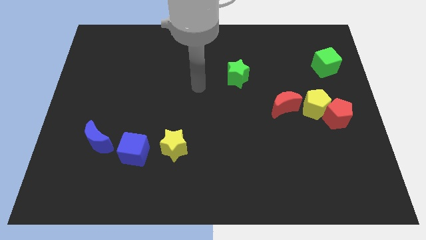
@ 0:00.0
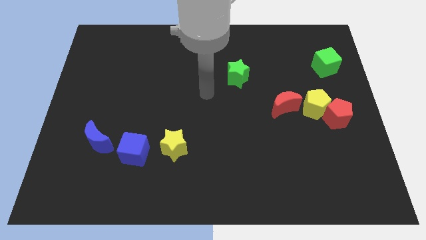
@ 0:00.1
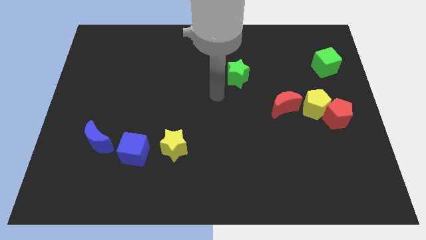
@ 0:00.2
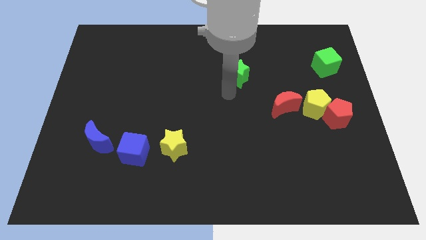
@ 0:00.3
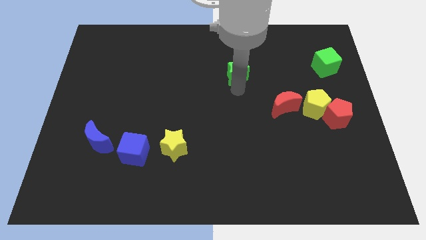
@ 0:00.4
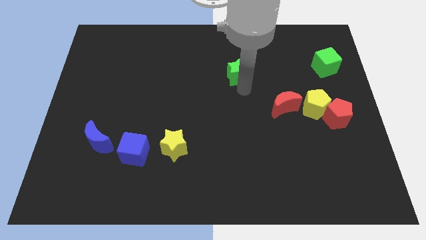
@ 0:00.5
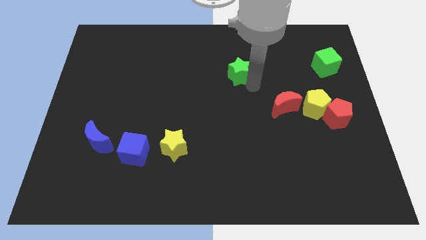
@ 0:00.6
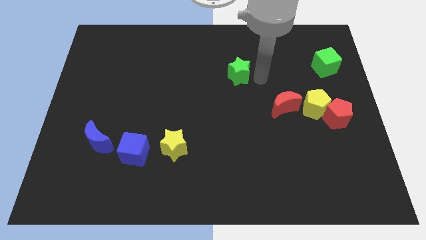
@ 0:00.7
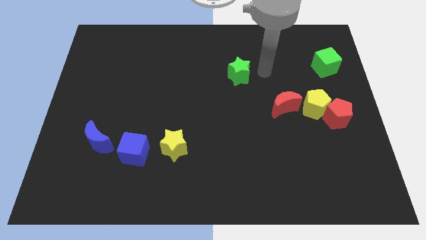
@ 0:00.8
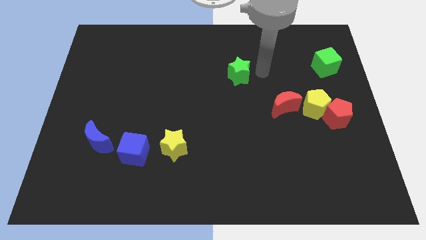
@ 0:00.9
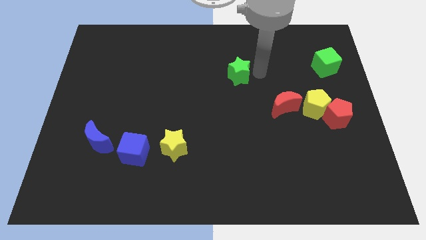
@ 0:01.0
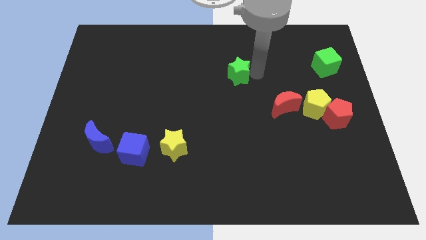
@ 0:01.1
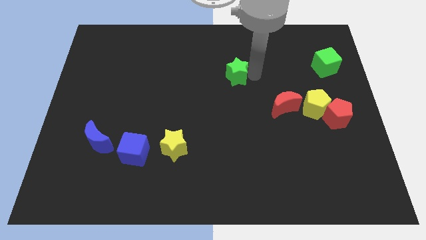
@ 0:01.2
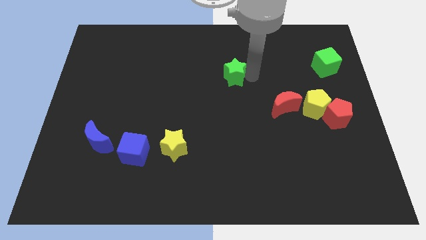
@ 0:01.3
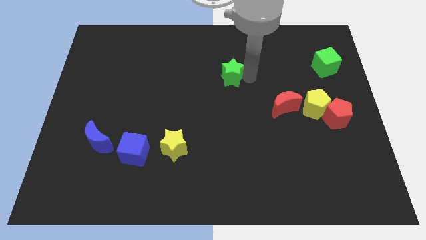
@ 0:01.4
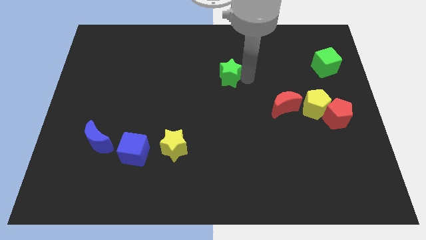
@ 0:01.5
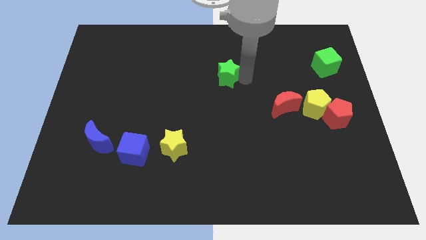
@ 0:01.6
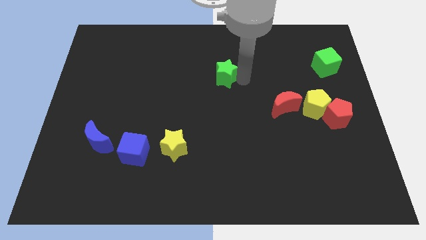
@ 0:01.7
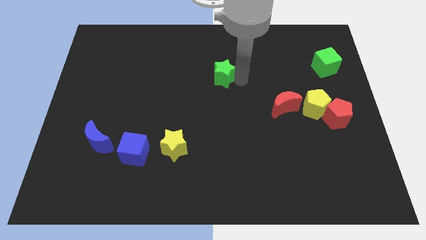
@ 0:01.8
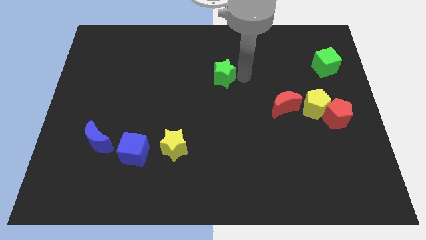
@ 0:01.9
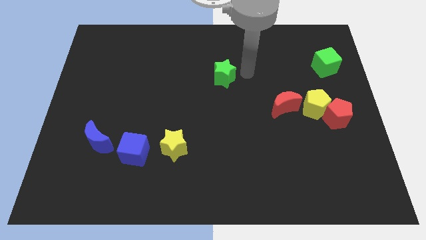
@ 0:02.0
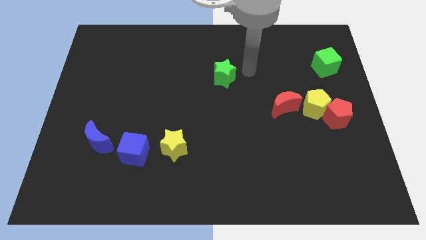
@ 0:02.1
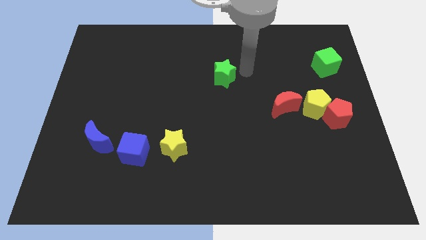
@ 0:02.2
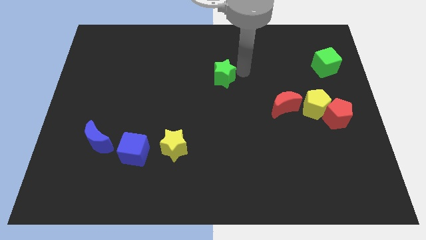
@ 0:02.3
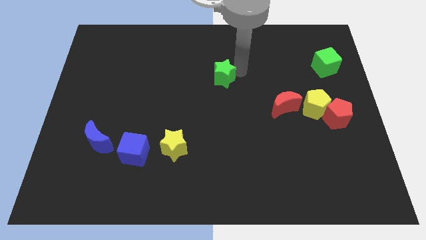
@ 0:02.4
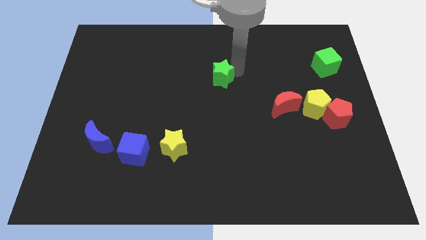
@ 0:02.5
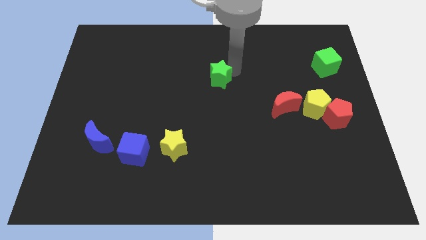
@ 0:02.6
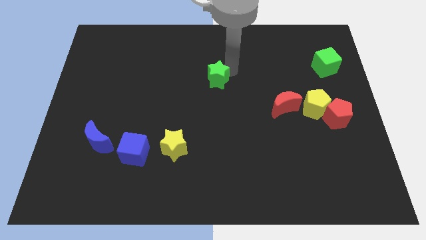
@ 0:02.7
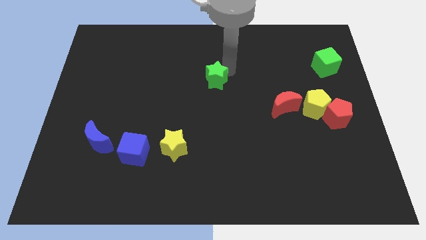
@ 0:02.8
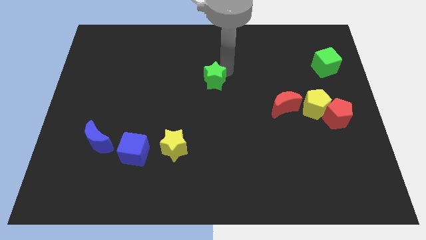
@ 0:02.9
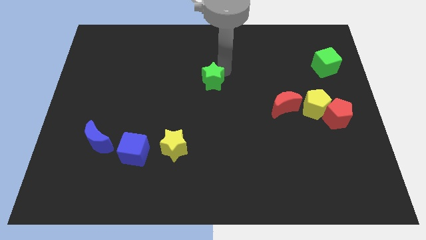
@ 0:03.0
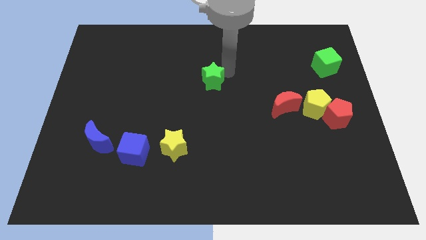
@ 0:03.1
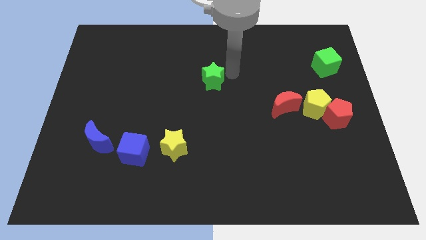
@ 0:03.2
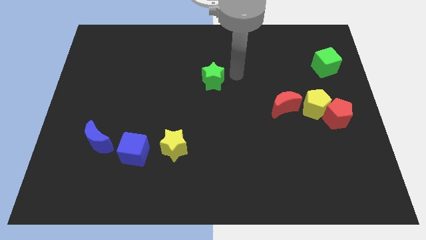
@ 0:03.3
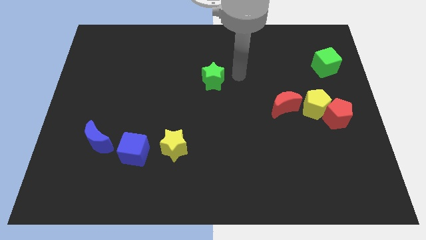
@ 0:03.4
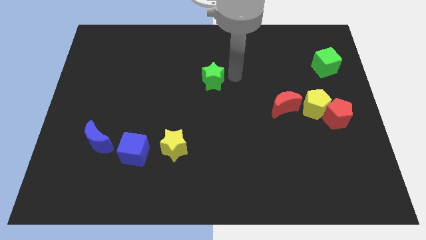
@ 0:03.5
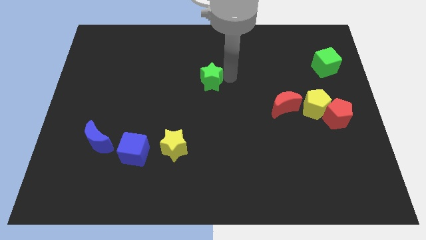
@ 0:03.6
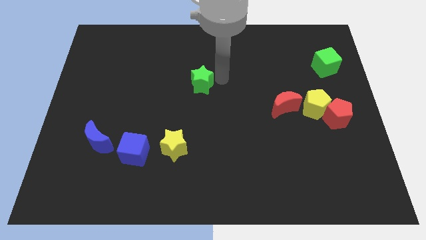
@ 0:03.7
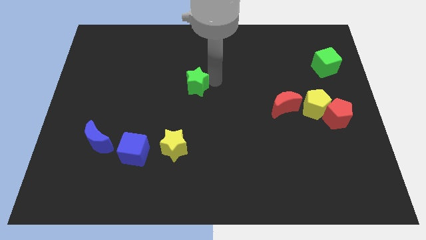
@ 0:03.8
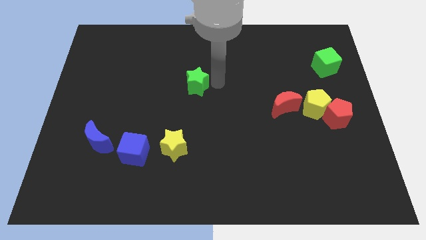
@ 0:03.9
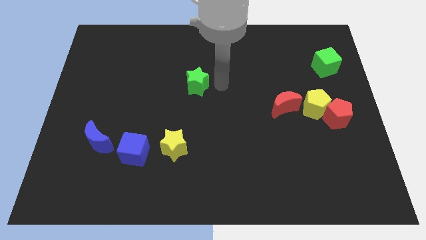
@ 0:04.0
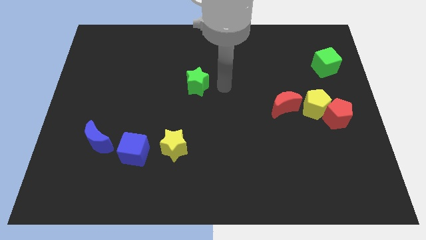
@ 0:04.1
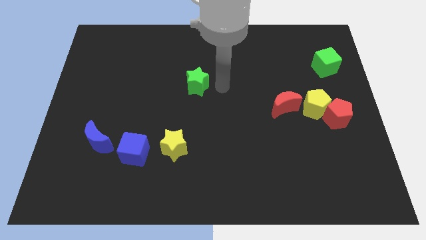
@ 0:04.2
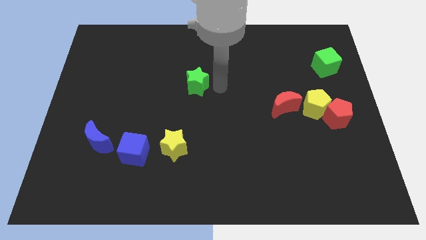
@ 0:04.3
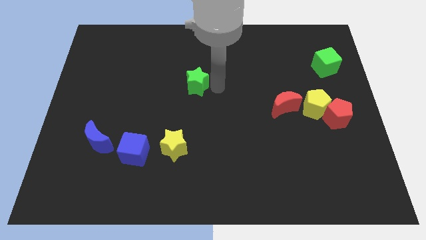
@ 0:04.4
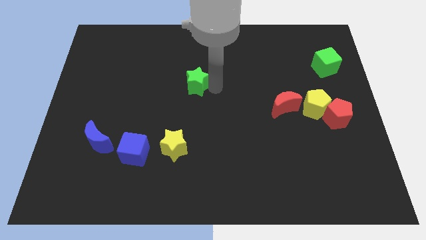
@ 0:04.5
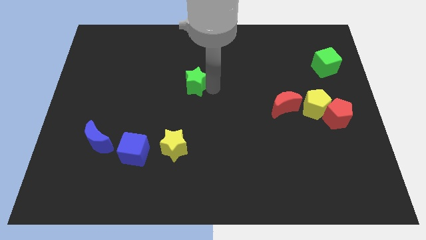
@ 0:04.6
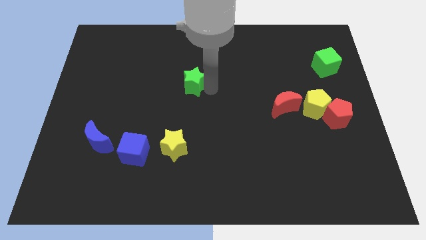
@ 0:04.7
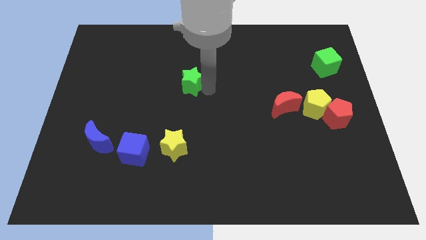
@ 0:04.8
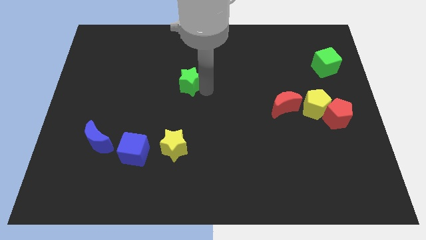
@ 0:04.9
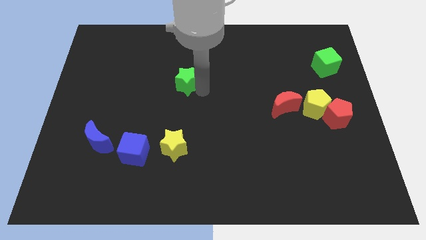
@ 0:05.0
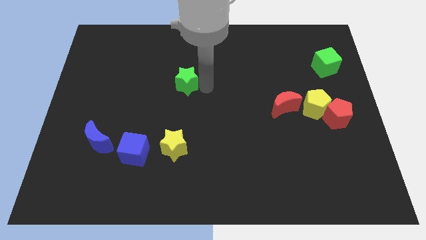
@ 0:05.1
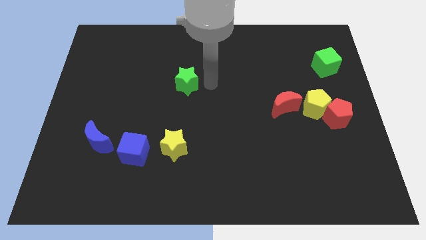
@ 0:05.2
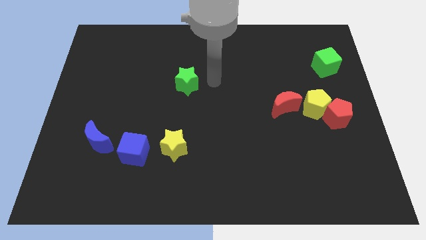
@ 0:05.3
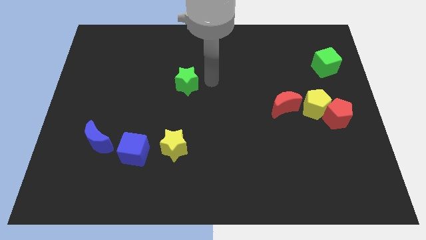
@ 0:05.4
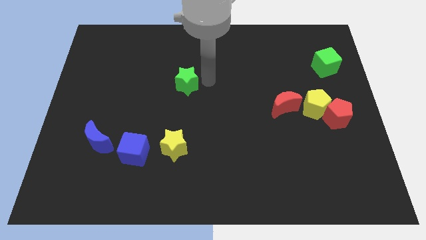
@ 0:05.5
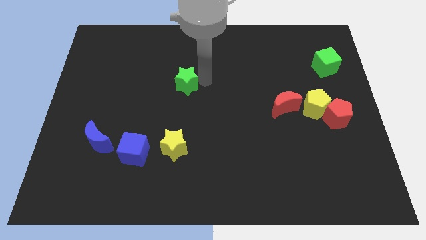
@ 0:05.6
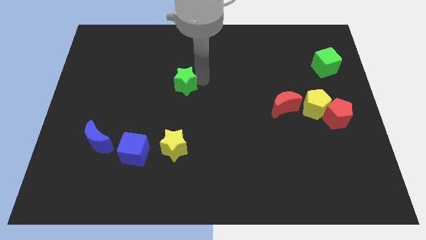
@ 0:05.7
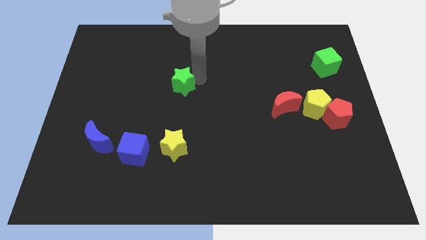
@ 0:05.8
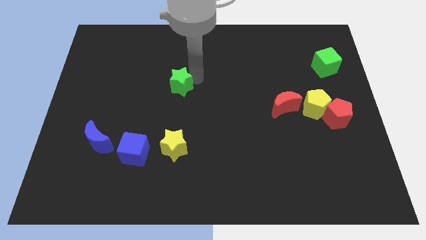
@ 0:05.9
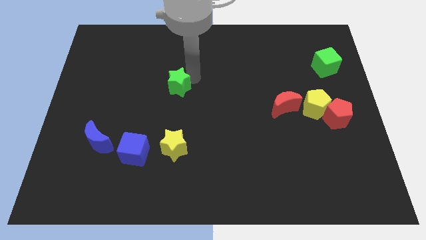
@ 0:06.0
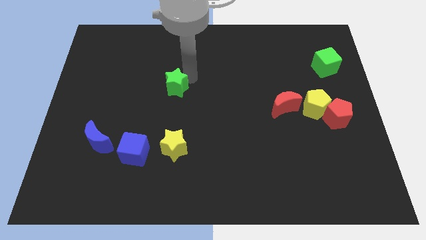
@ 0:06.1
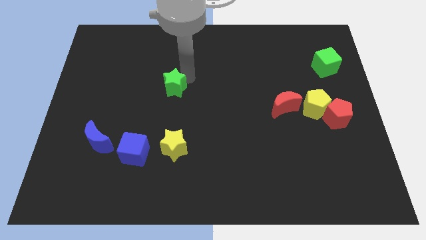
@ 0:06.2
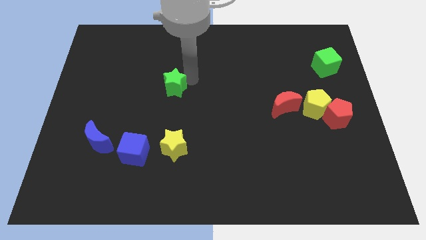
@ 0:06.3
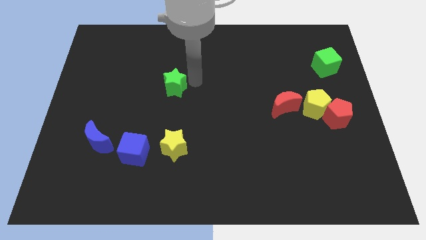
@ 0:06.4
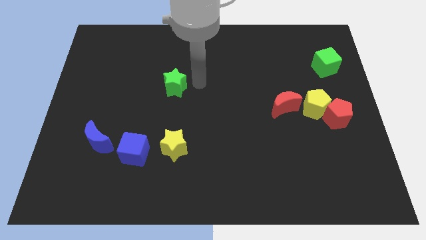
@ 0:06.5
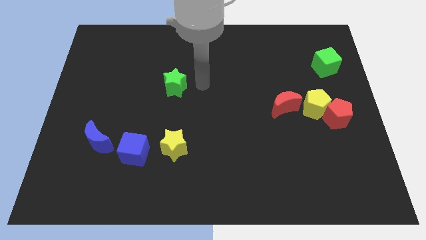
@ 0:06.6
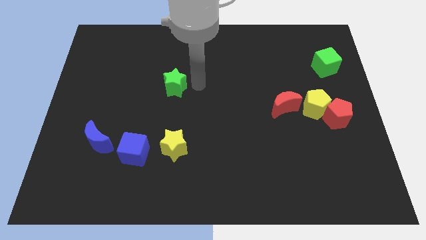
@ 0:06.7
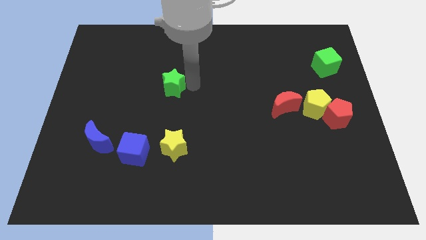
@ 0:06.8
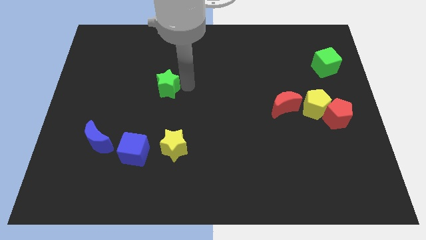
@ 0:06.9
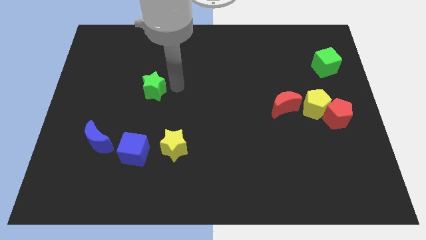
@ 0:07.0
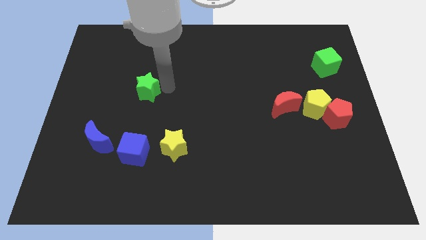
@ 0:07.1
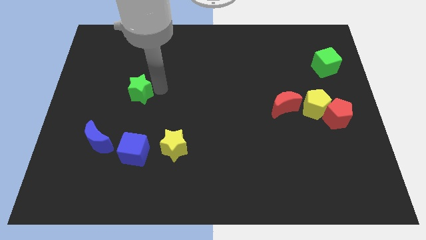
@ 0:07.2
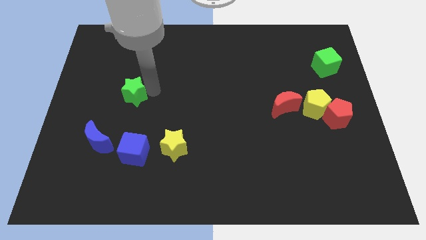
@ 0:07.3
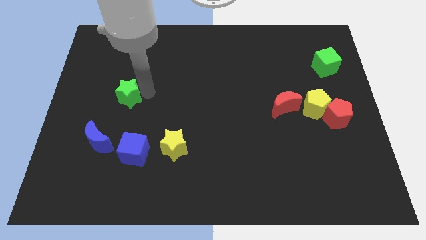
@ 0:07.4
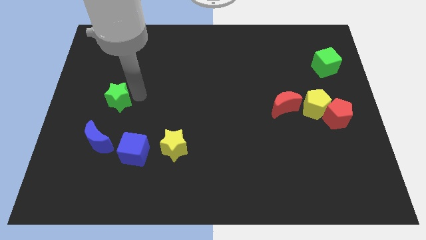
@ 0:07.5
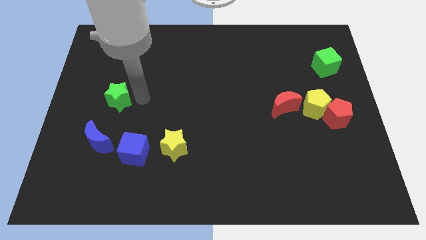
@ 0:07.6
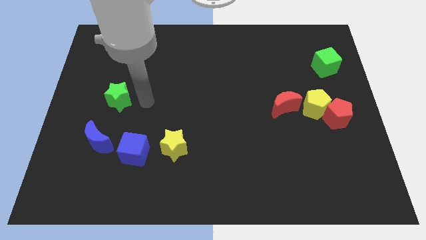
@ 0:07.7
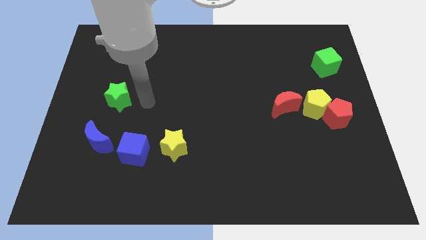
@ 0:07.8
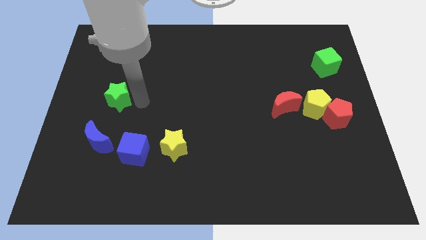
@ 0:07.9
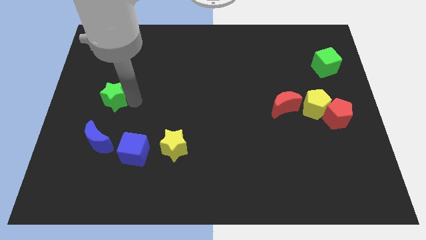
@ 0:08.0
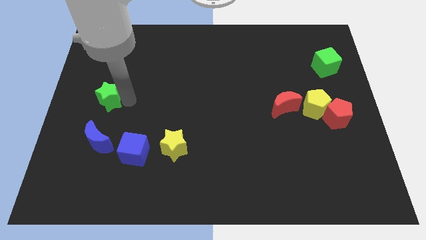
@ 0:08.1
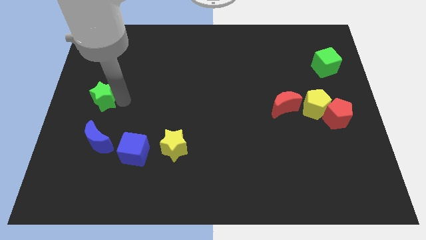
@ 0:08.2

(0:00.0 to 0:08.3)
move the green star to the left side
